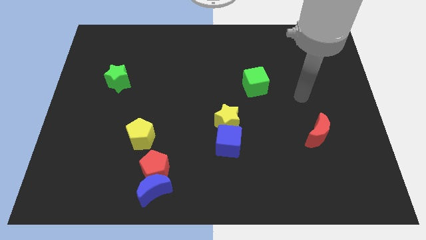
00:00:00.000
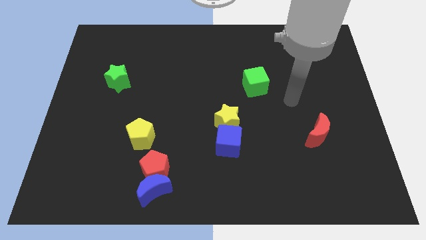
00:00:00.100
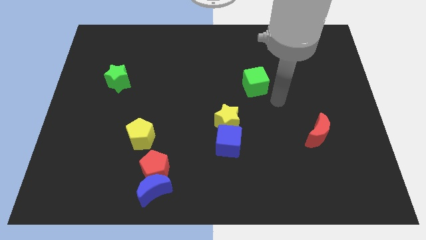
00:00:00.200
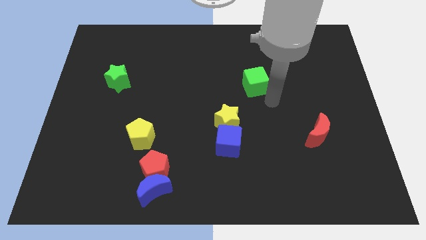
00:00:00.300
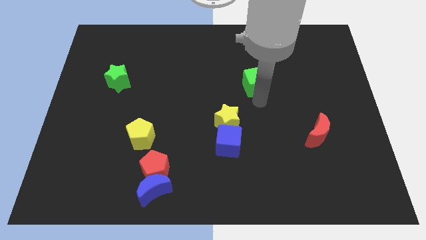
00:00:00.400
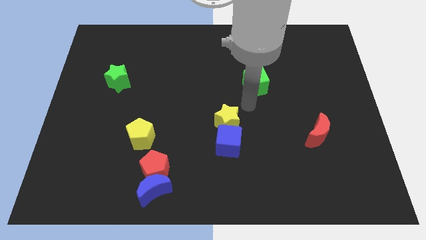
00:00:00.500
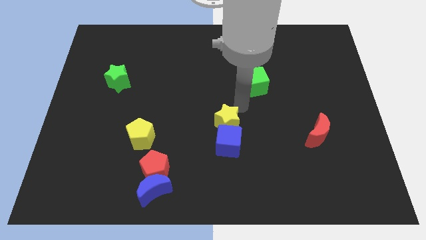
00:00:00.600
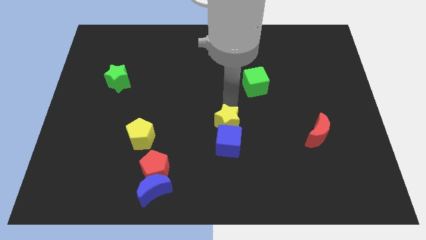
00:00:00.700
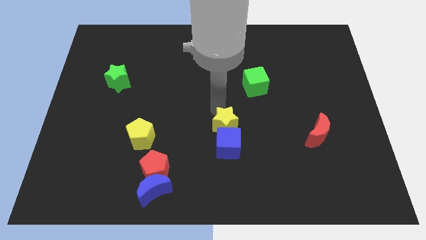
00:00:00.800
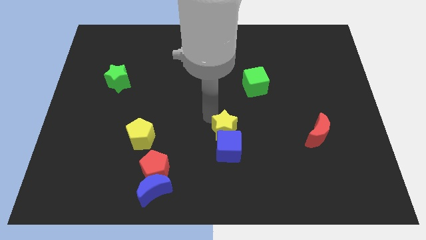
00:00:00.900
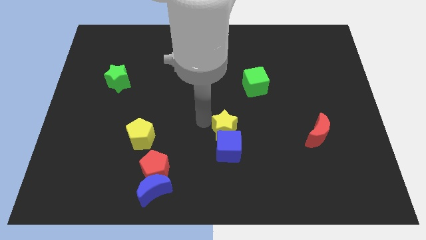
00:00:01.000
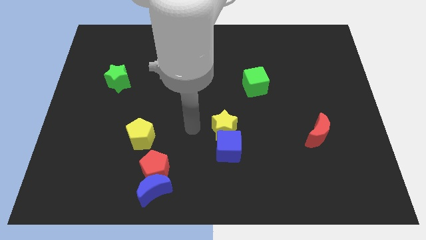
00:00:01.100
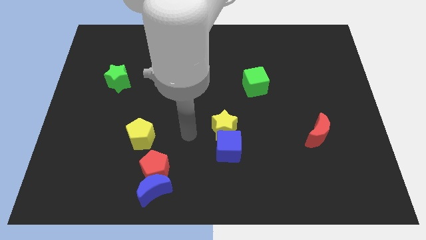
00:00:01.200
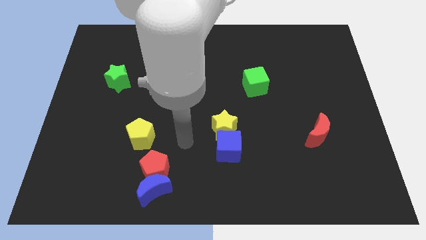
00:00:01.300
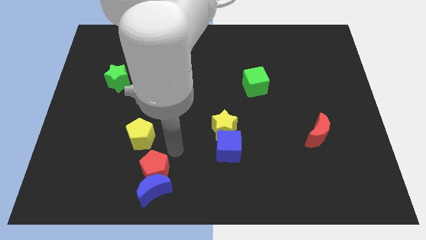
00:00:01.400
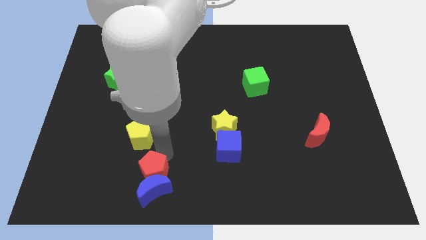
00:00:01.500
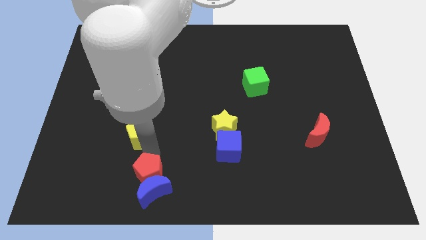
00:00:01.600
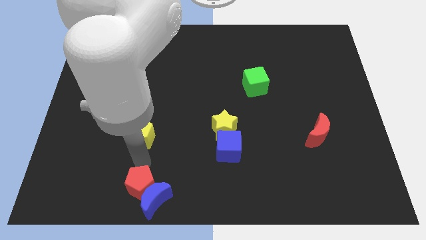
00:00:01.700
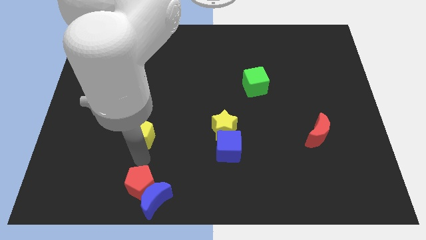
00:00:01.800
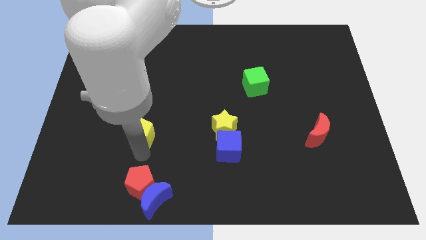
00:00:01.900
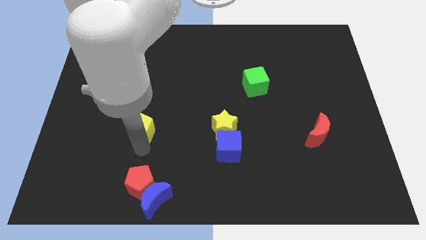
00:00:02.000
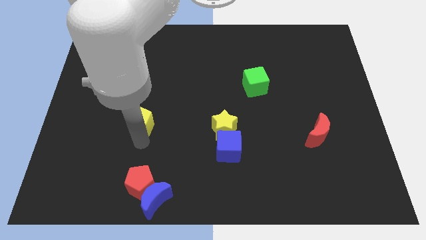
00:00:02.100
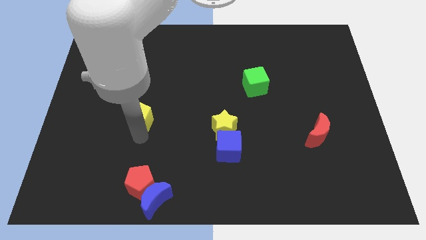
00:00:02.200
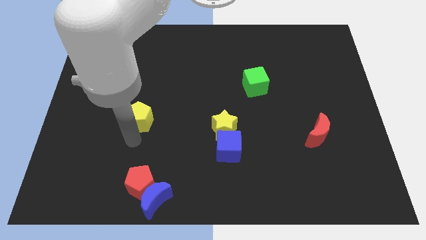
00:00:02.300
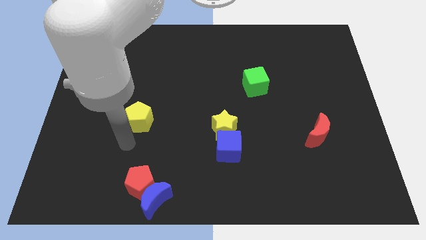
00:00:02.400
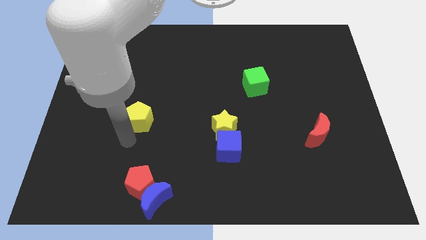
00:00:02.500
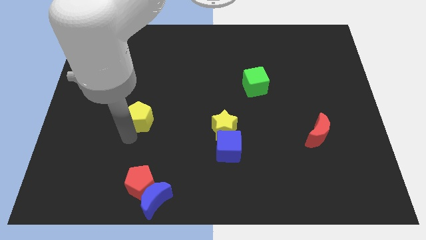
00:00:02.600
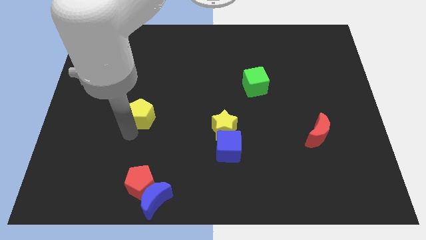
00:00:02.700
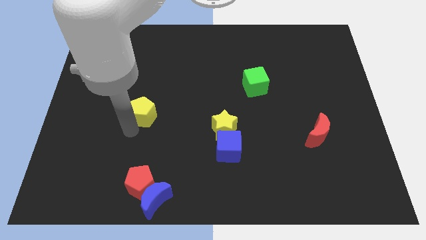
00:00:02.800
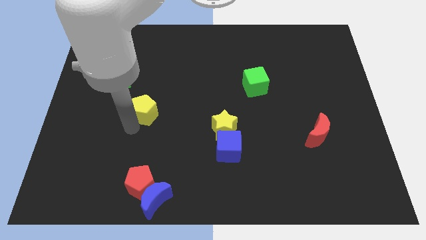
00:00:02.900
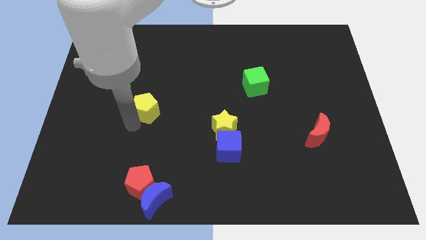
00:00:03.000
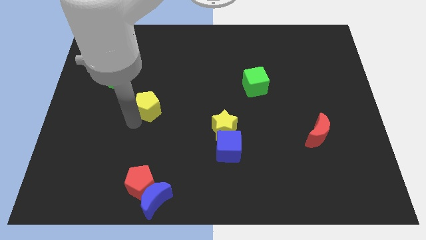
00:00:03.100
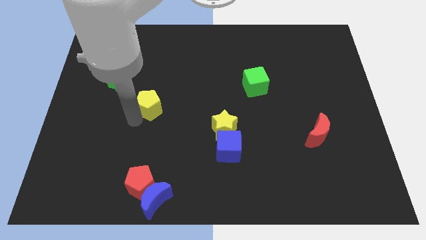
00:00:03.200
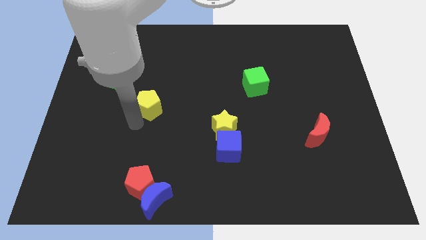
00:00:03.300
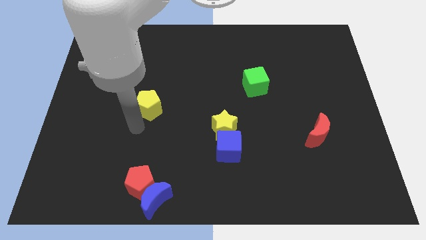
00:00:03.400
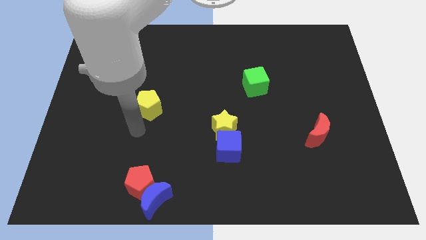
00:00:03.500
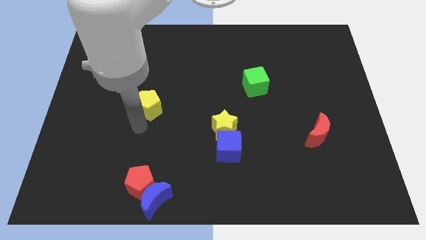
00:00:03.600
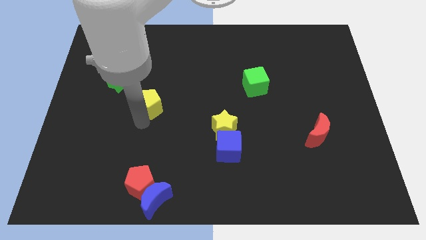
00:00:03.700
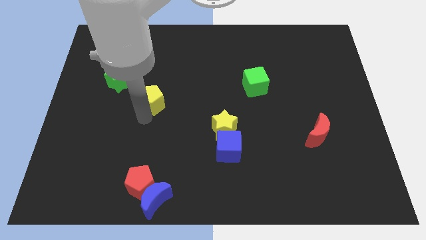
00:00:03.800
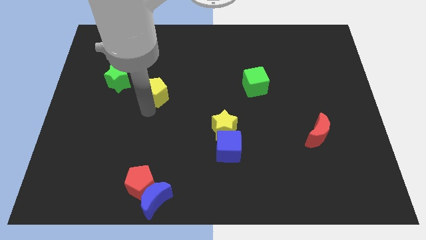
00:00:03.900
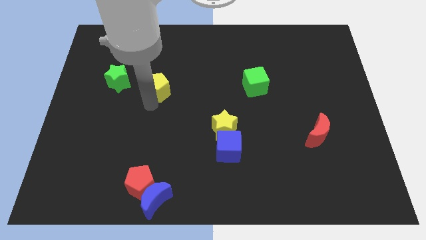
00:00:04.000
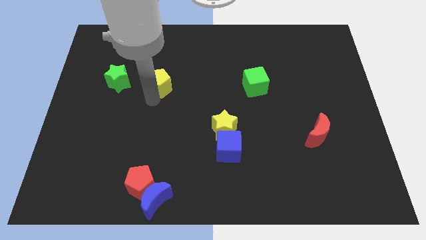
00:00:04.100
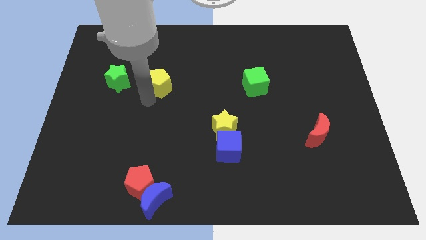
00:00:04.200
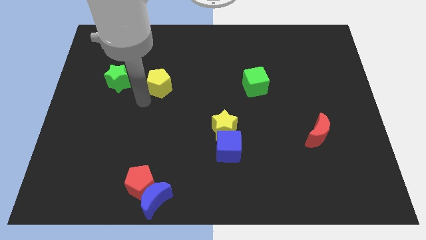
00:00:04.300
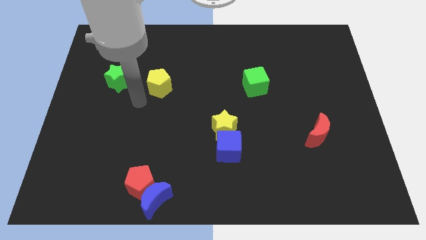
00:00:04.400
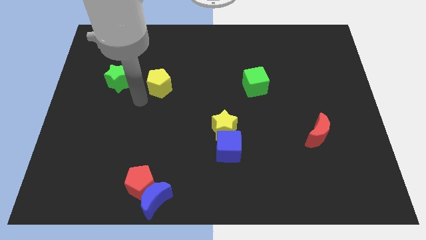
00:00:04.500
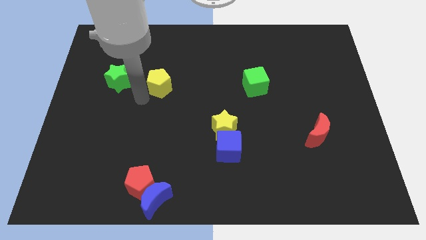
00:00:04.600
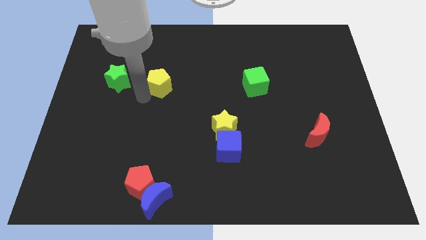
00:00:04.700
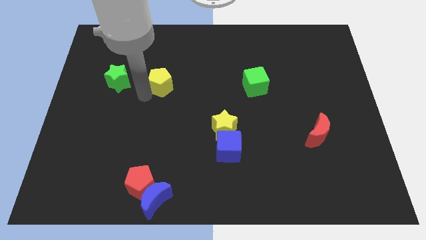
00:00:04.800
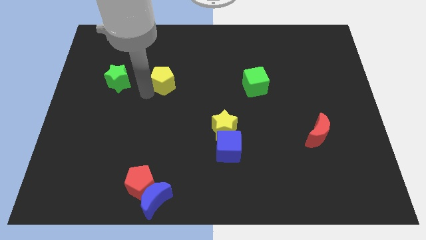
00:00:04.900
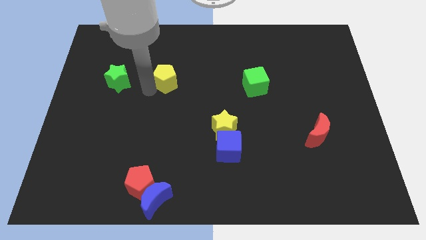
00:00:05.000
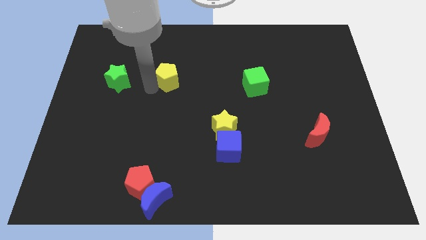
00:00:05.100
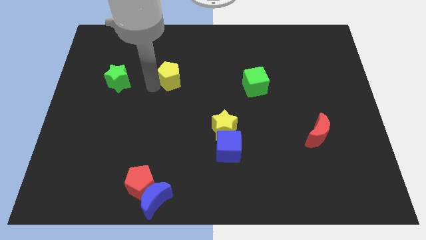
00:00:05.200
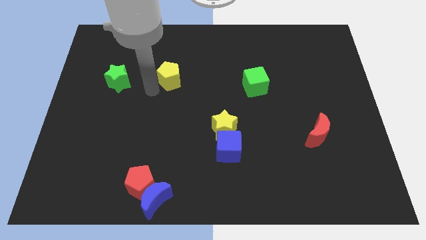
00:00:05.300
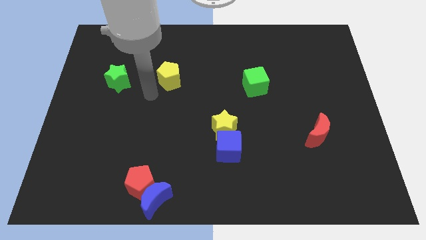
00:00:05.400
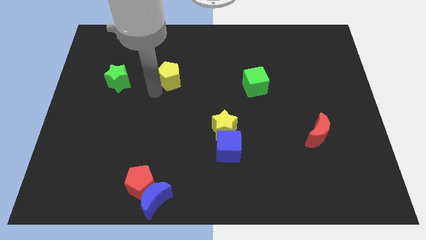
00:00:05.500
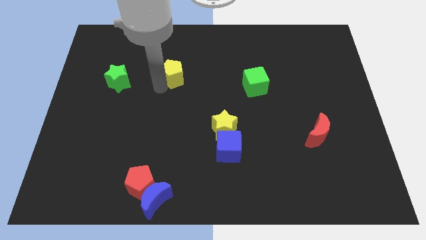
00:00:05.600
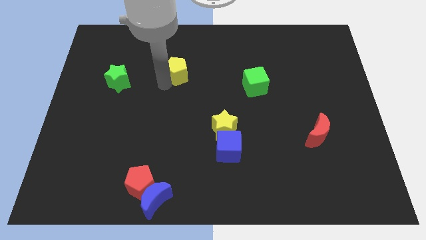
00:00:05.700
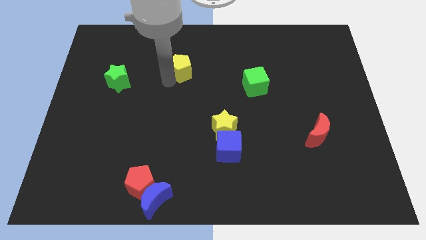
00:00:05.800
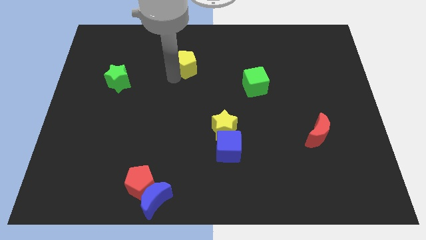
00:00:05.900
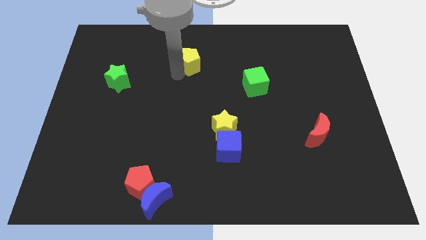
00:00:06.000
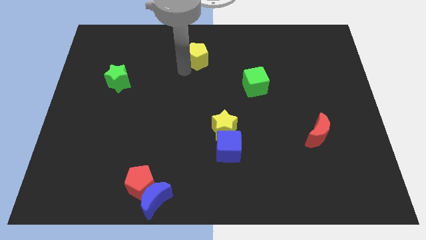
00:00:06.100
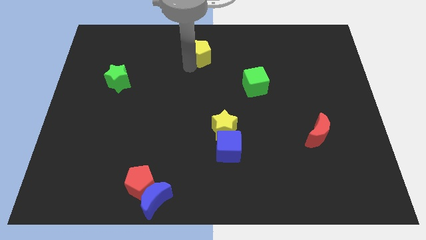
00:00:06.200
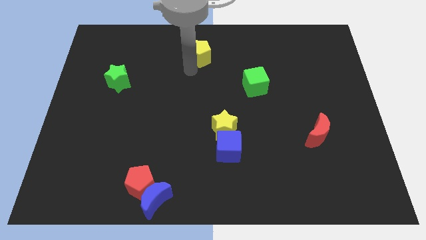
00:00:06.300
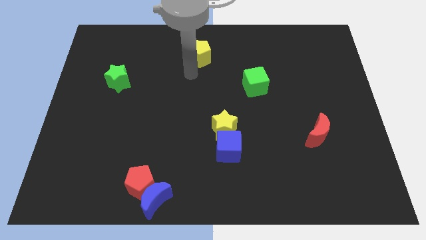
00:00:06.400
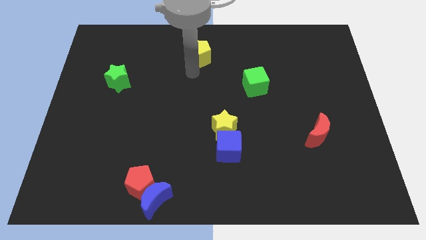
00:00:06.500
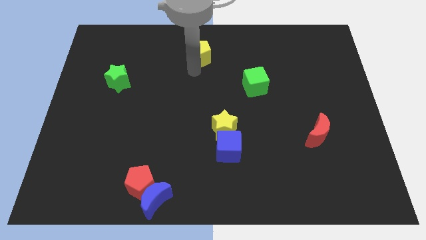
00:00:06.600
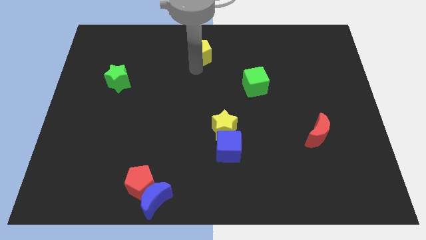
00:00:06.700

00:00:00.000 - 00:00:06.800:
put the yellow pentagon to the top side
